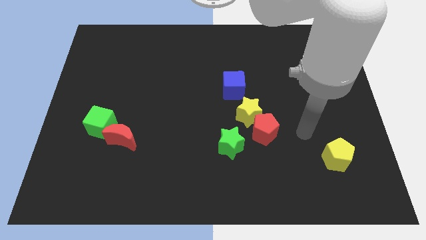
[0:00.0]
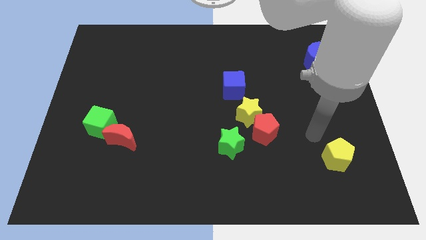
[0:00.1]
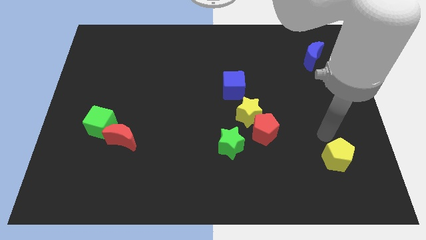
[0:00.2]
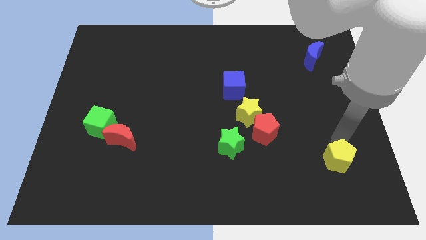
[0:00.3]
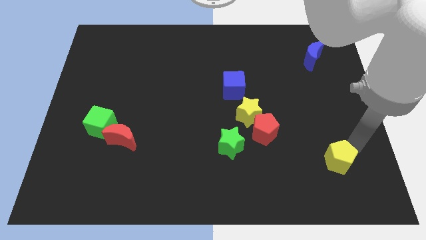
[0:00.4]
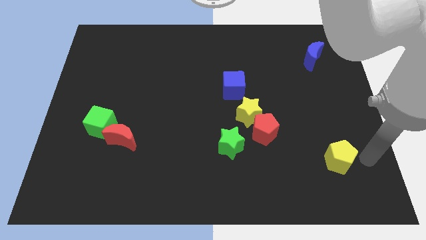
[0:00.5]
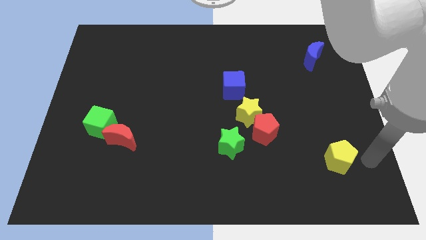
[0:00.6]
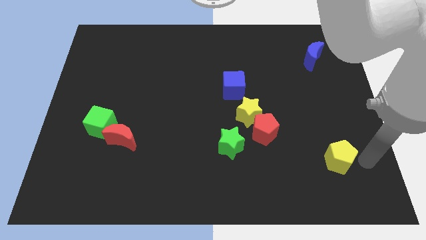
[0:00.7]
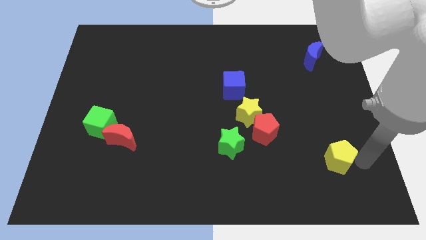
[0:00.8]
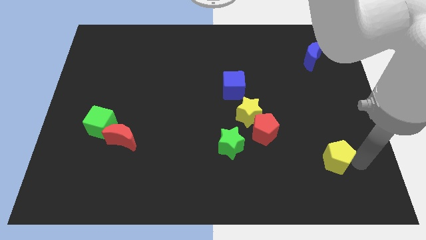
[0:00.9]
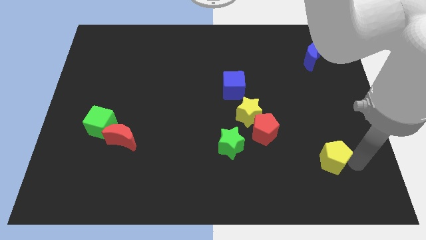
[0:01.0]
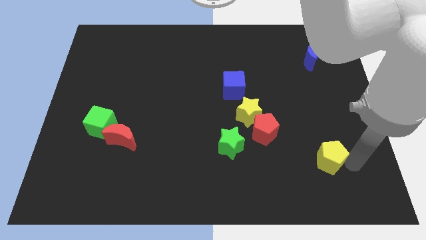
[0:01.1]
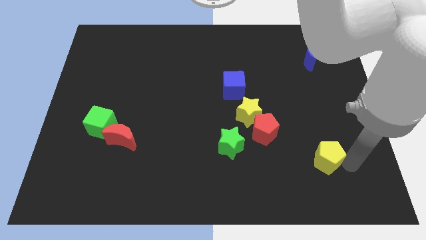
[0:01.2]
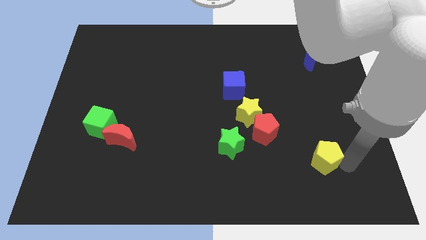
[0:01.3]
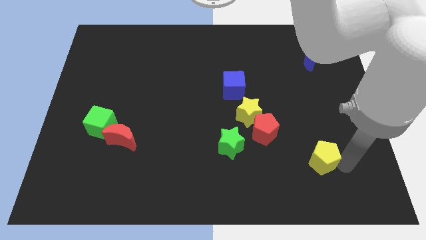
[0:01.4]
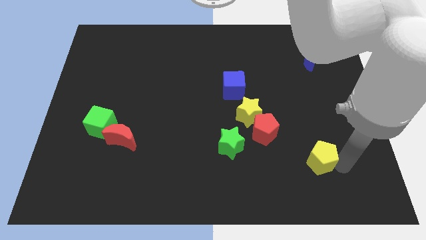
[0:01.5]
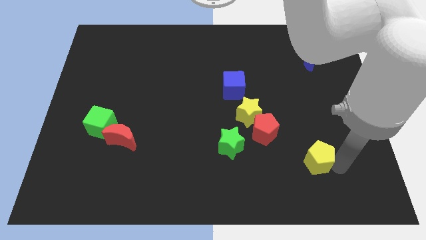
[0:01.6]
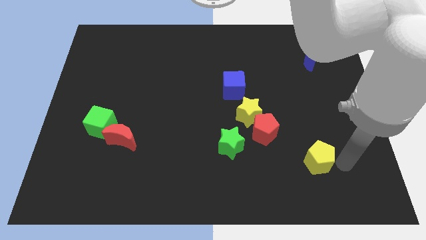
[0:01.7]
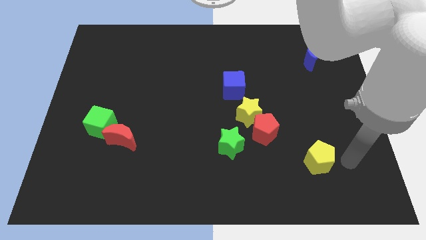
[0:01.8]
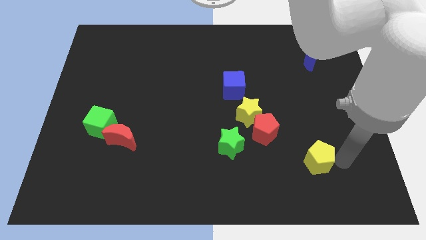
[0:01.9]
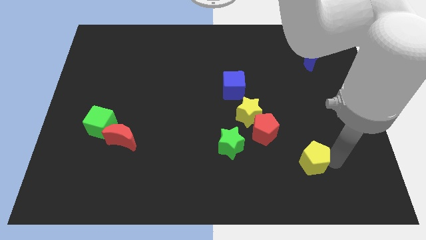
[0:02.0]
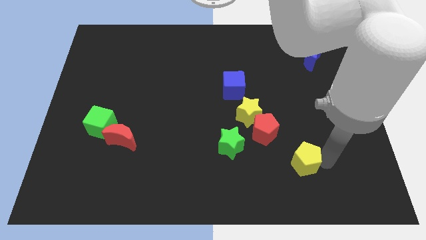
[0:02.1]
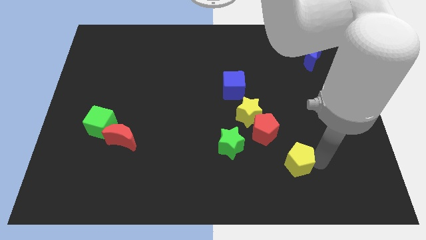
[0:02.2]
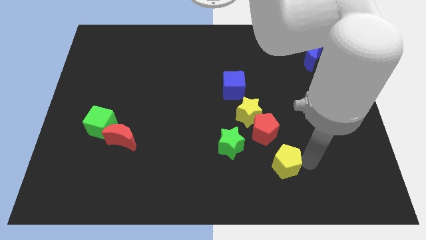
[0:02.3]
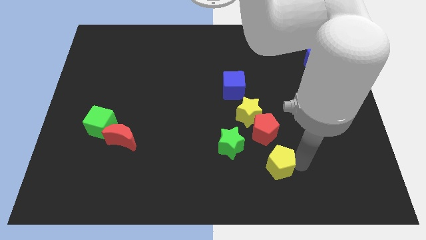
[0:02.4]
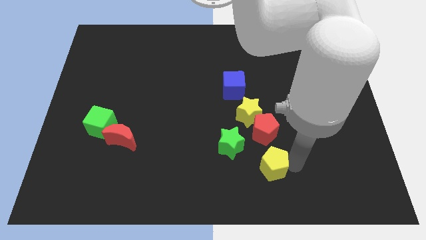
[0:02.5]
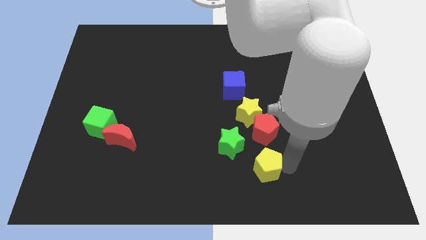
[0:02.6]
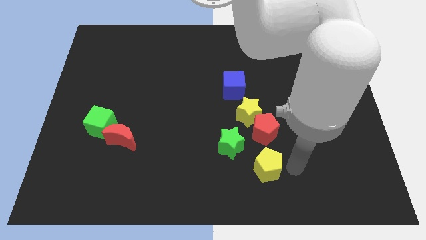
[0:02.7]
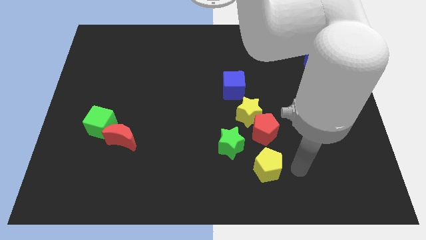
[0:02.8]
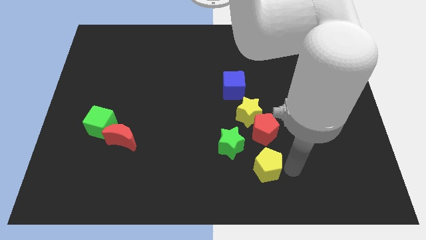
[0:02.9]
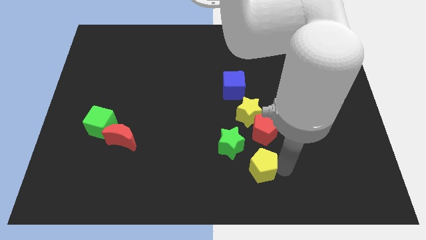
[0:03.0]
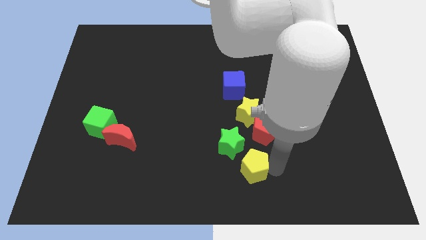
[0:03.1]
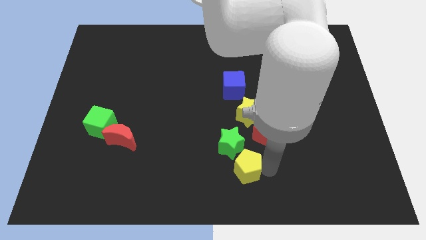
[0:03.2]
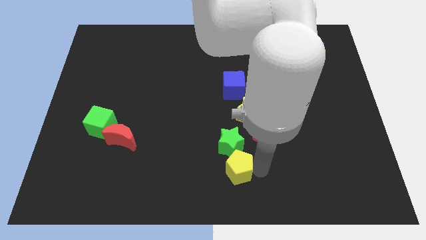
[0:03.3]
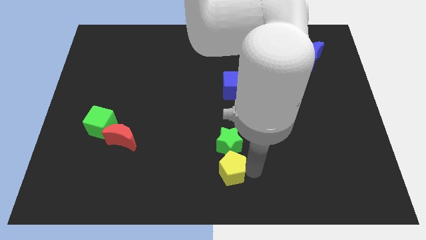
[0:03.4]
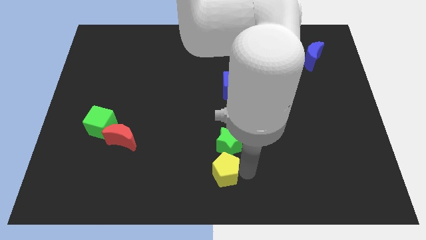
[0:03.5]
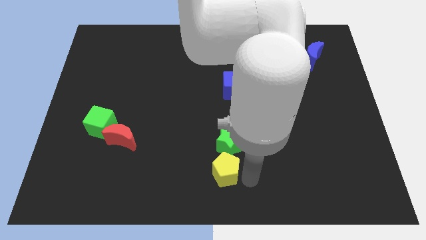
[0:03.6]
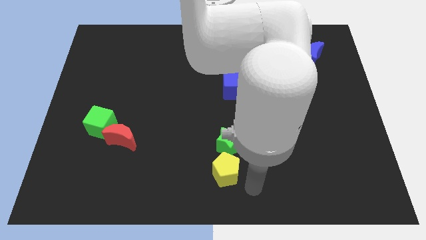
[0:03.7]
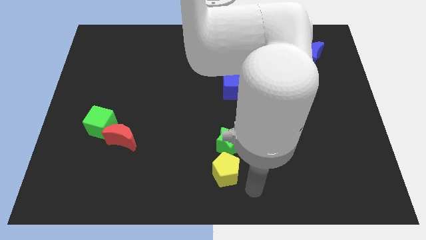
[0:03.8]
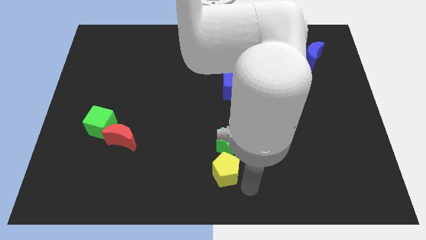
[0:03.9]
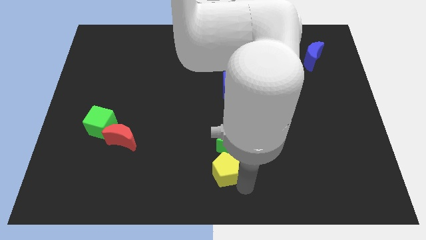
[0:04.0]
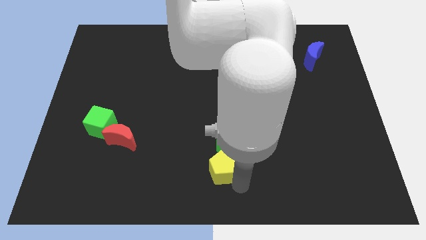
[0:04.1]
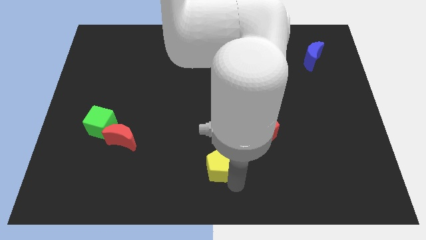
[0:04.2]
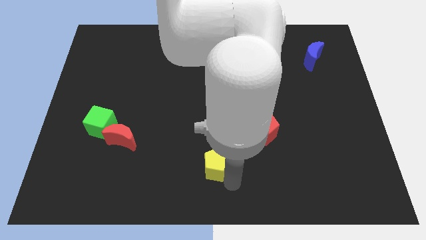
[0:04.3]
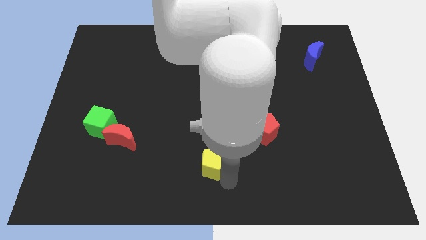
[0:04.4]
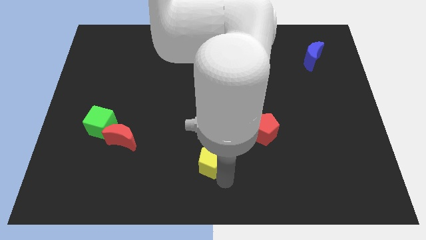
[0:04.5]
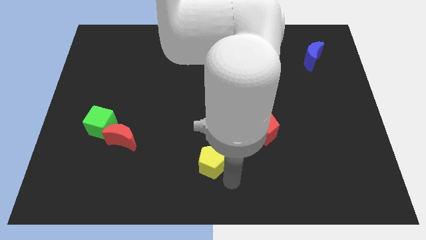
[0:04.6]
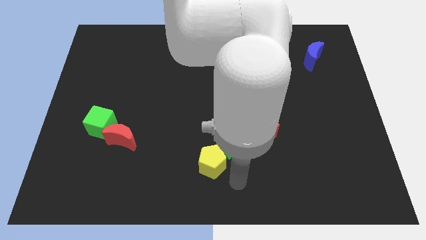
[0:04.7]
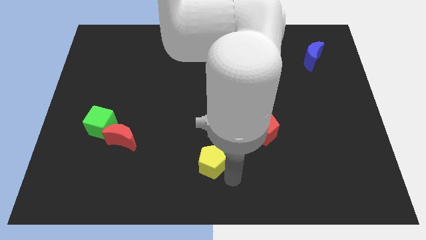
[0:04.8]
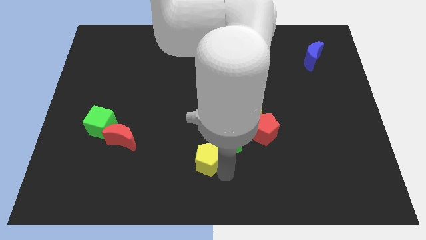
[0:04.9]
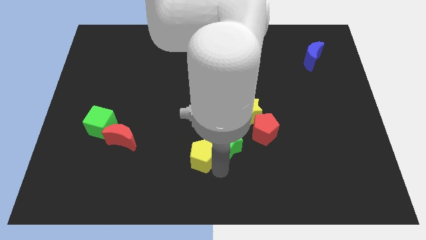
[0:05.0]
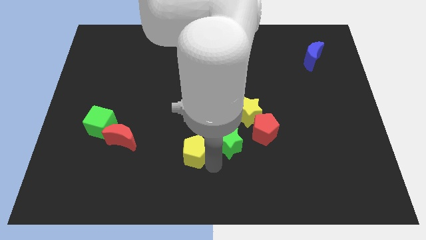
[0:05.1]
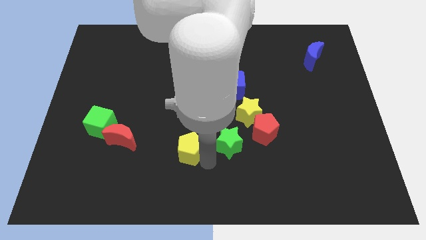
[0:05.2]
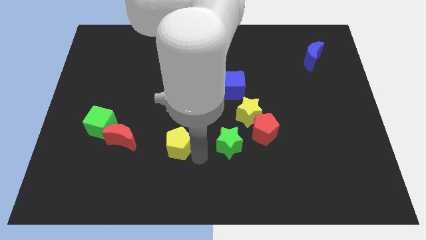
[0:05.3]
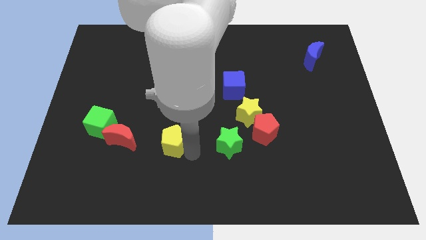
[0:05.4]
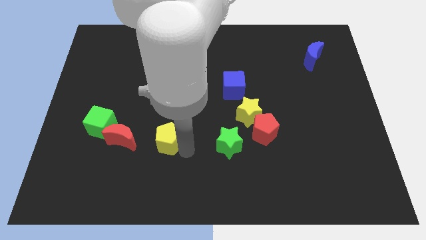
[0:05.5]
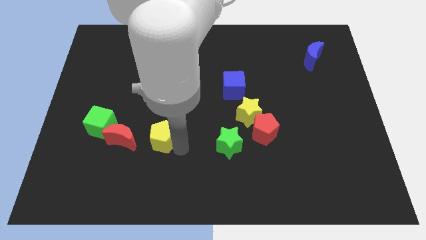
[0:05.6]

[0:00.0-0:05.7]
push the yellow pentagon just right of the green cube

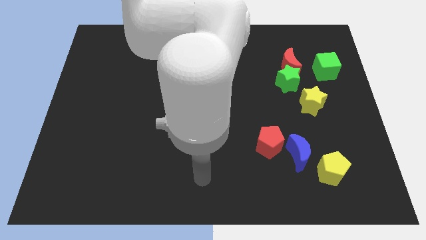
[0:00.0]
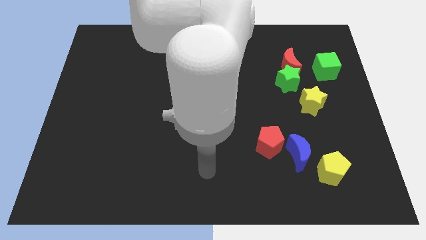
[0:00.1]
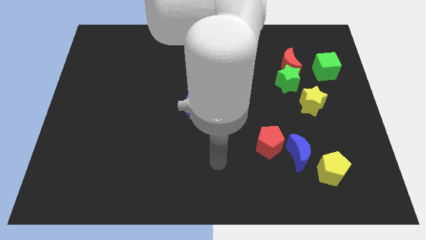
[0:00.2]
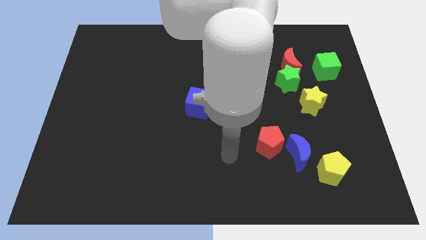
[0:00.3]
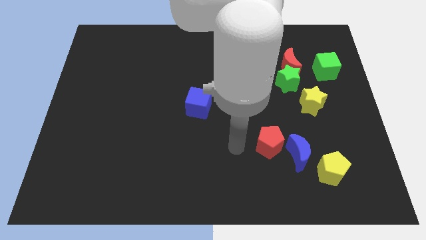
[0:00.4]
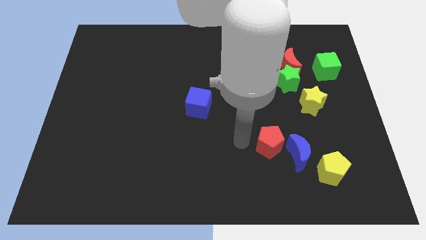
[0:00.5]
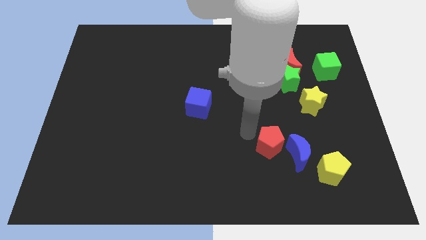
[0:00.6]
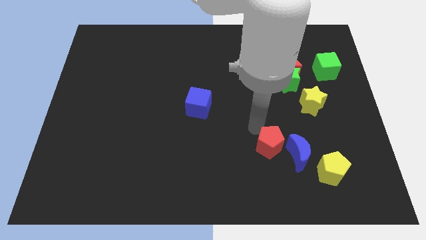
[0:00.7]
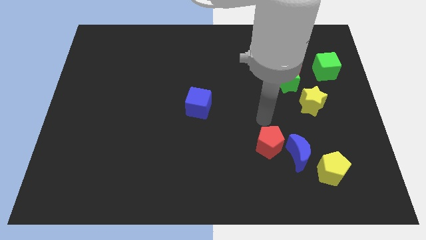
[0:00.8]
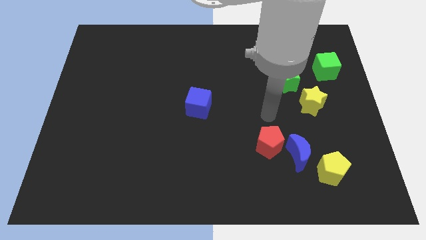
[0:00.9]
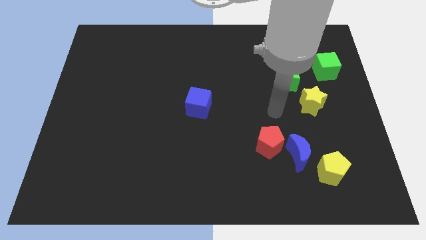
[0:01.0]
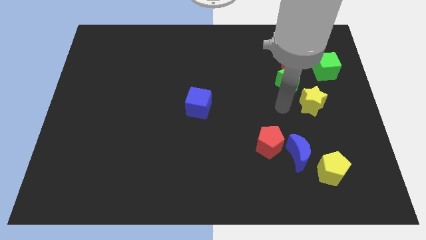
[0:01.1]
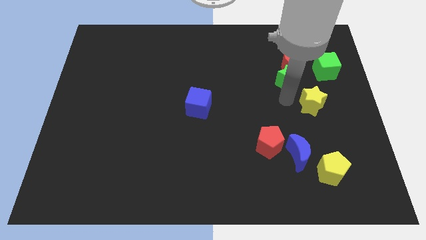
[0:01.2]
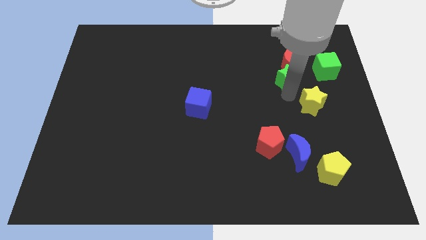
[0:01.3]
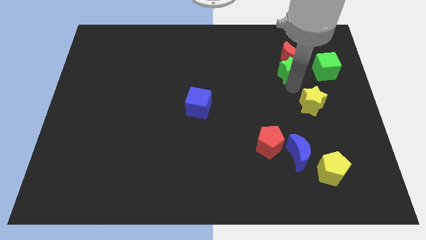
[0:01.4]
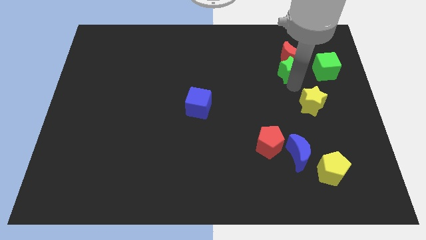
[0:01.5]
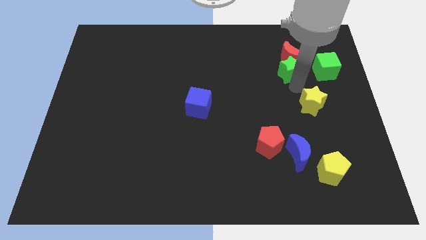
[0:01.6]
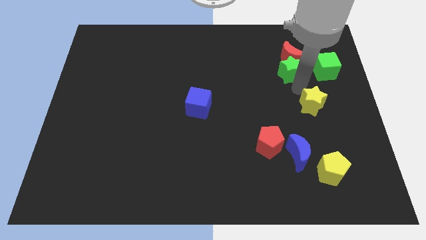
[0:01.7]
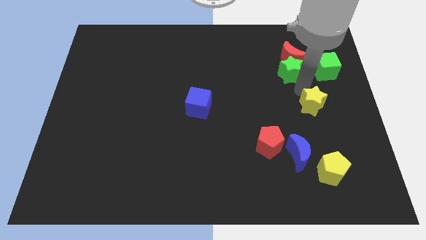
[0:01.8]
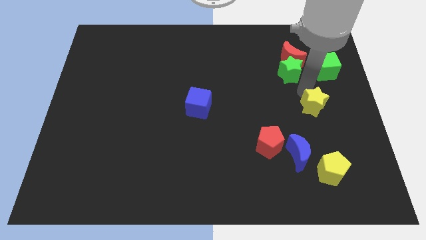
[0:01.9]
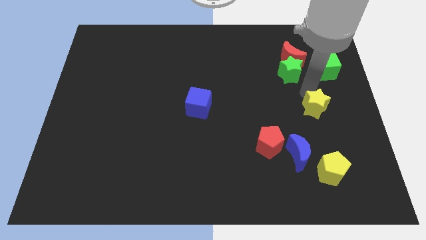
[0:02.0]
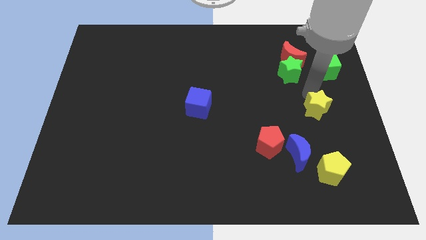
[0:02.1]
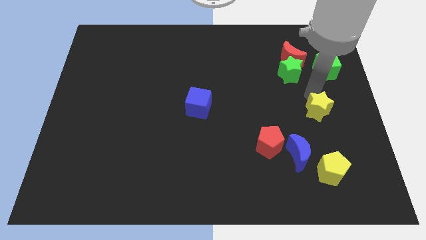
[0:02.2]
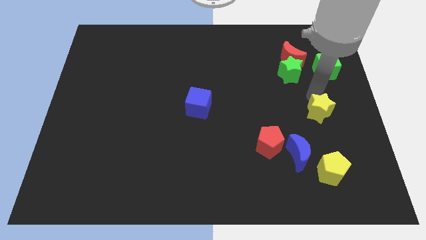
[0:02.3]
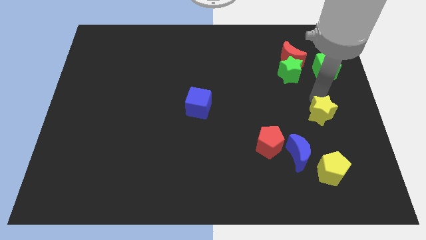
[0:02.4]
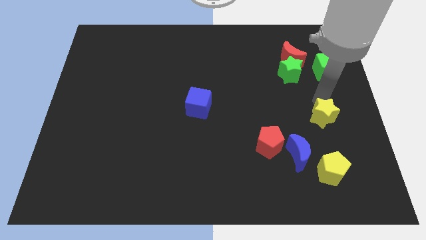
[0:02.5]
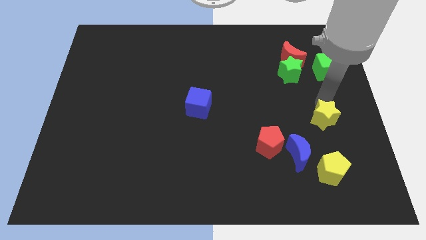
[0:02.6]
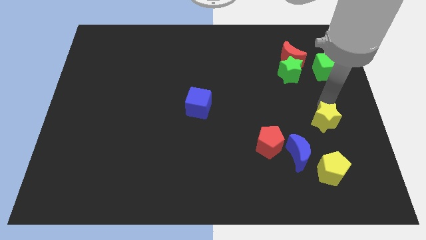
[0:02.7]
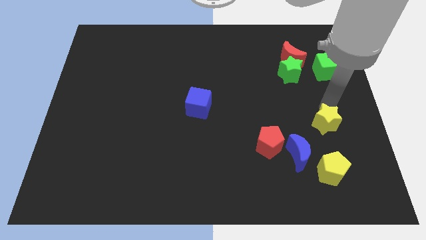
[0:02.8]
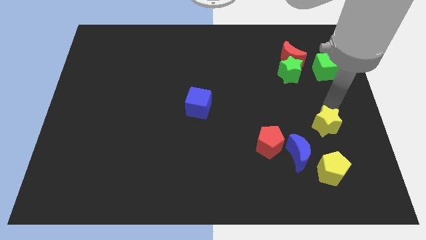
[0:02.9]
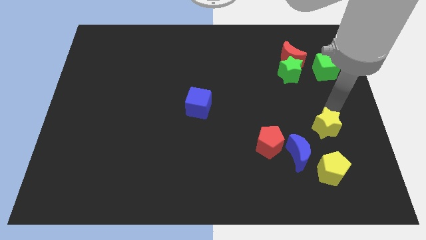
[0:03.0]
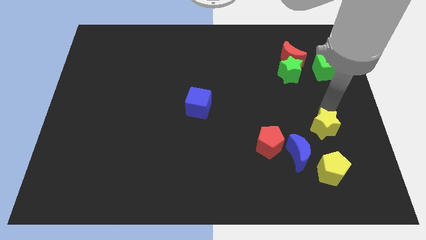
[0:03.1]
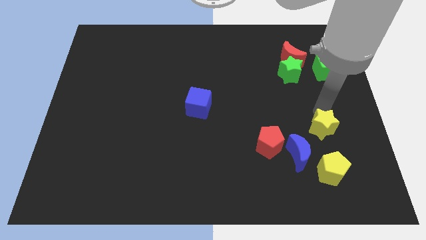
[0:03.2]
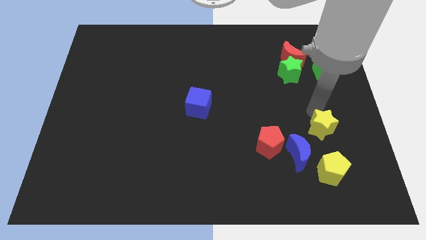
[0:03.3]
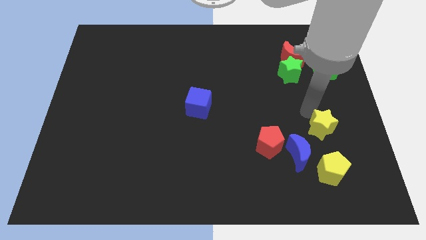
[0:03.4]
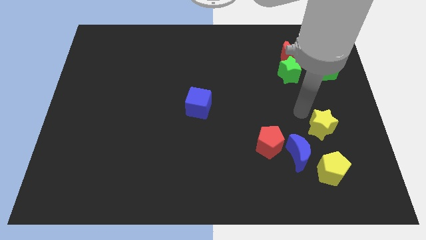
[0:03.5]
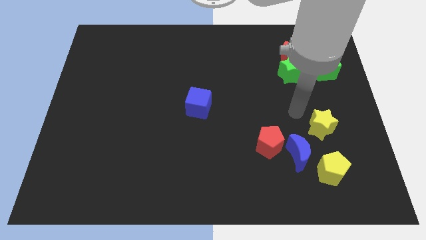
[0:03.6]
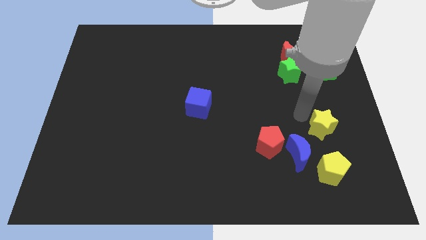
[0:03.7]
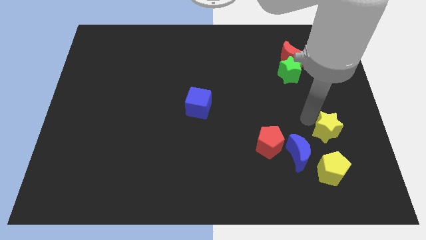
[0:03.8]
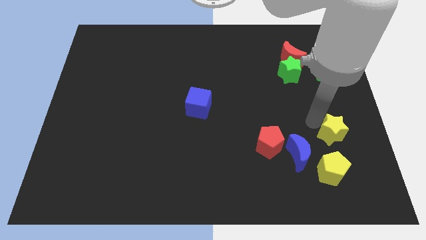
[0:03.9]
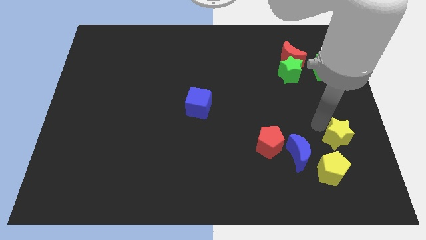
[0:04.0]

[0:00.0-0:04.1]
move the yellow star to the right side of the blue moon
